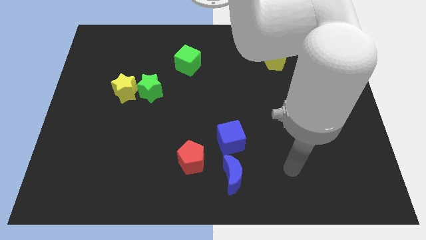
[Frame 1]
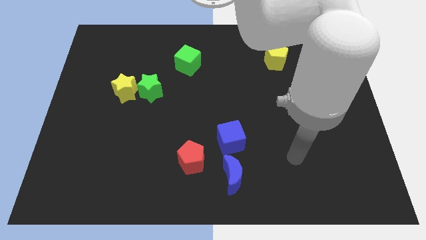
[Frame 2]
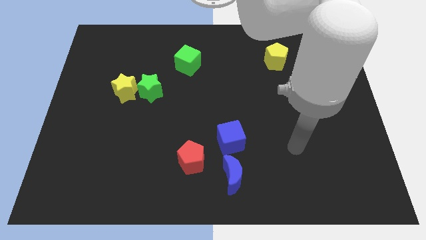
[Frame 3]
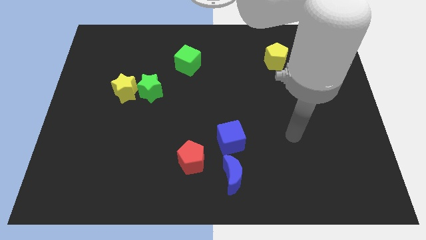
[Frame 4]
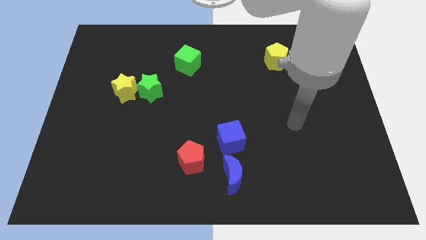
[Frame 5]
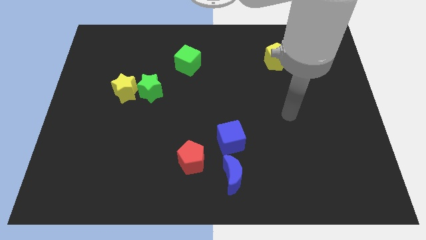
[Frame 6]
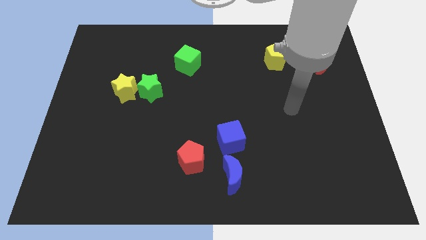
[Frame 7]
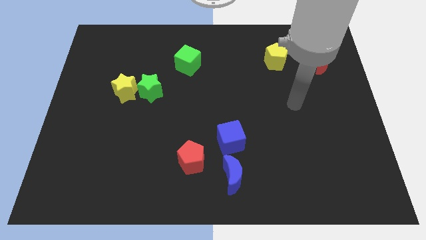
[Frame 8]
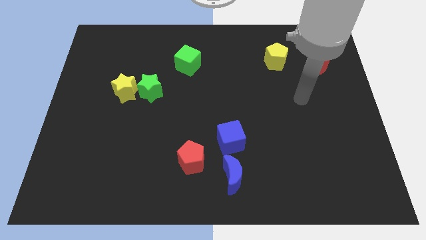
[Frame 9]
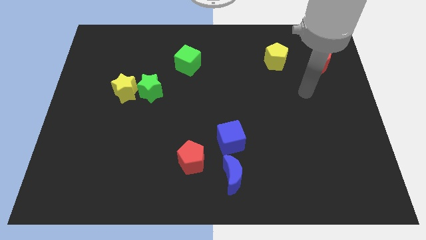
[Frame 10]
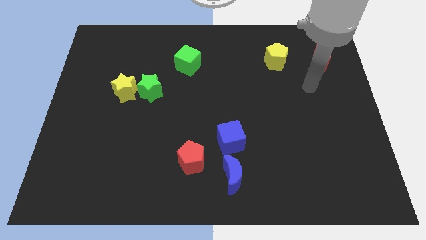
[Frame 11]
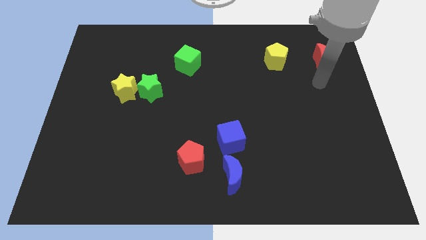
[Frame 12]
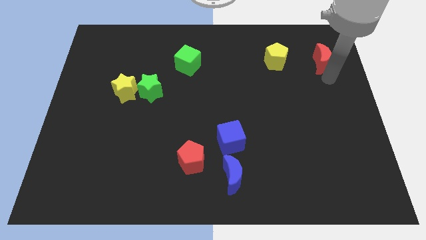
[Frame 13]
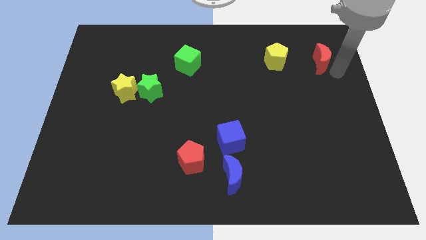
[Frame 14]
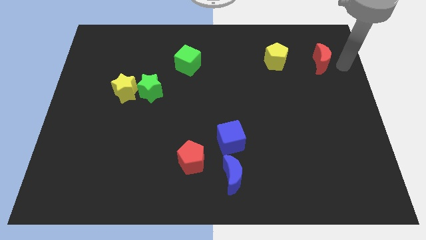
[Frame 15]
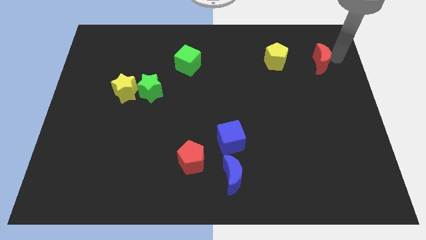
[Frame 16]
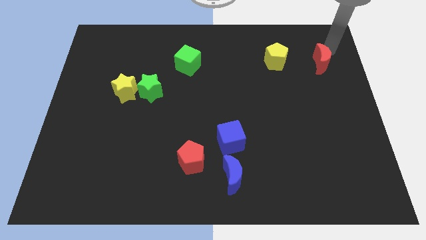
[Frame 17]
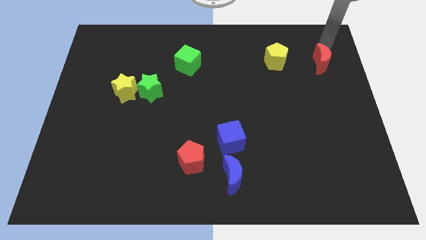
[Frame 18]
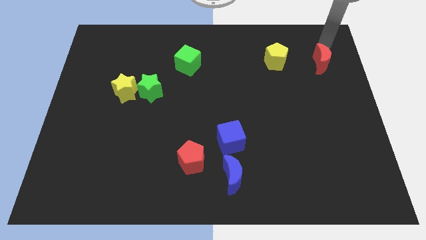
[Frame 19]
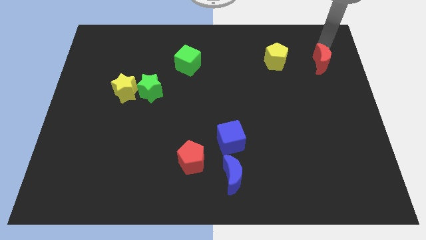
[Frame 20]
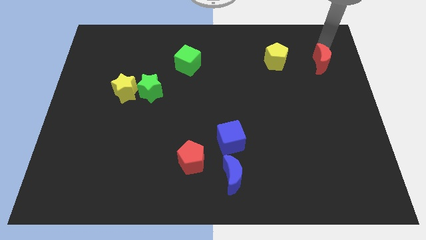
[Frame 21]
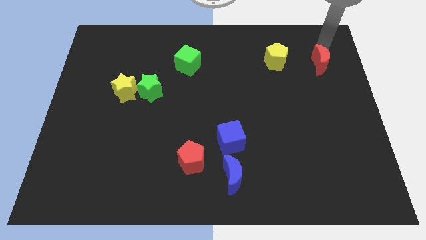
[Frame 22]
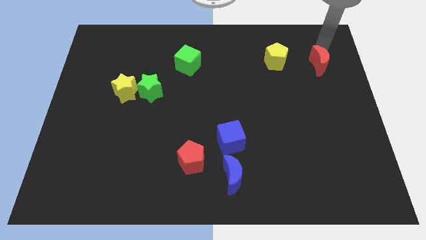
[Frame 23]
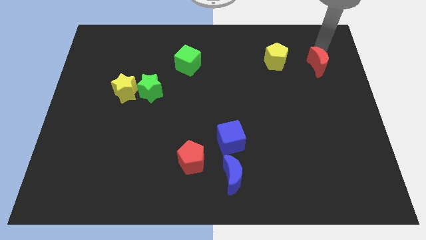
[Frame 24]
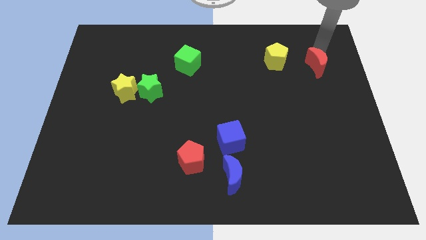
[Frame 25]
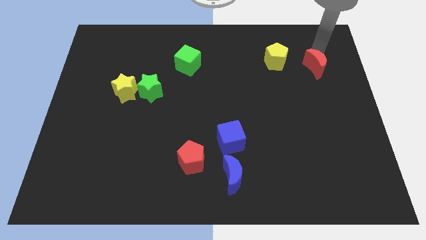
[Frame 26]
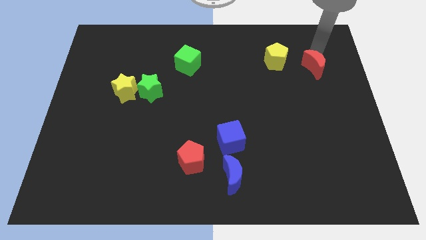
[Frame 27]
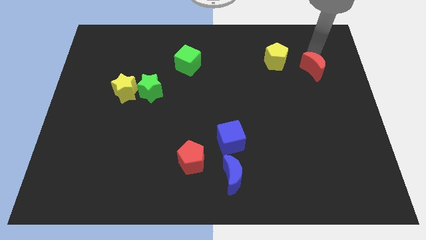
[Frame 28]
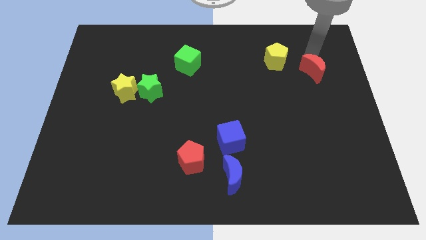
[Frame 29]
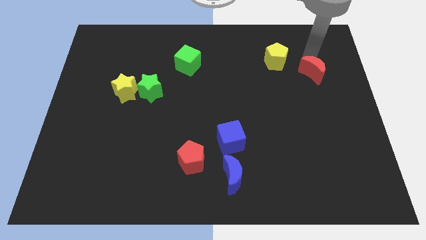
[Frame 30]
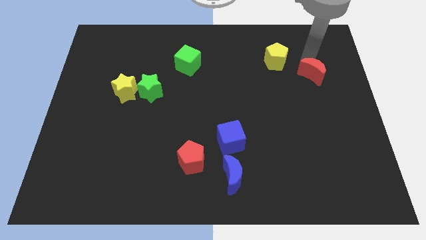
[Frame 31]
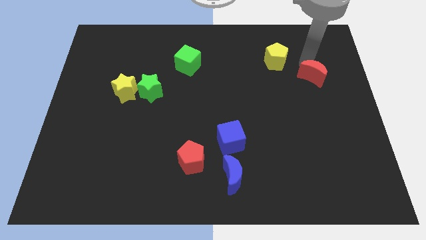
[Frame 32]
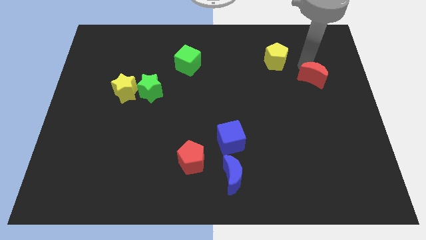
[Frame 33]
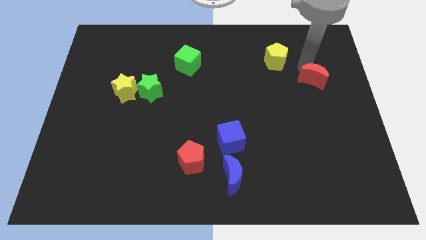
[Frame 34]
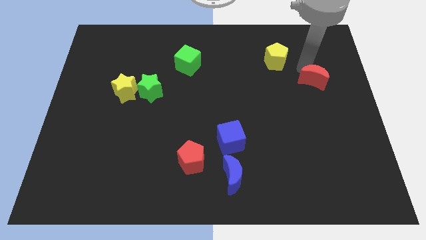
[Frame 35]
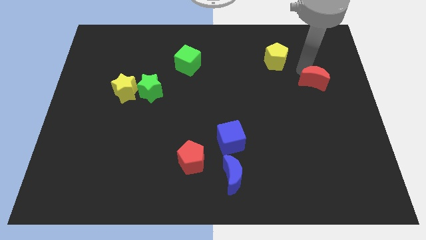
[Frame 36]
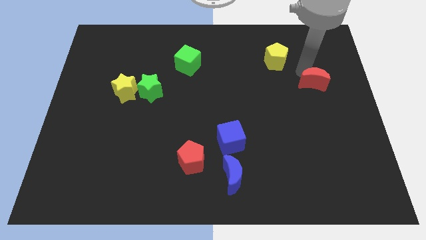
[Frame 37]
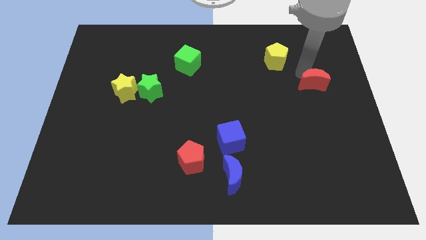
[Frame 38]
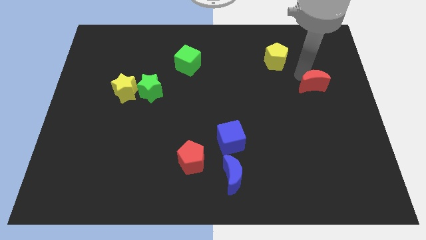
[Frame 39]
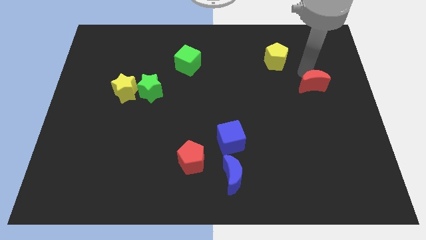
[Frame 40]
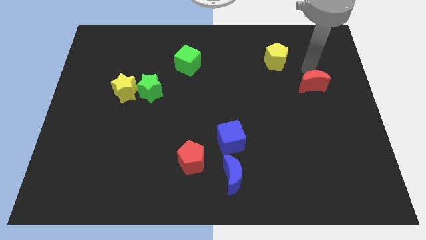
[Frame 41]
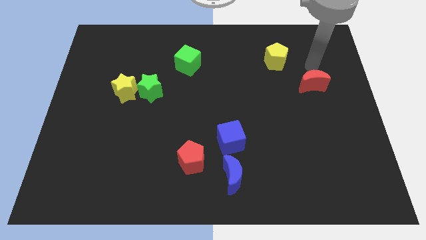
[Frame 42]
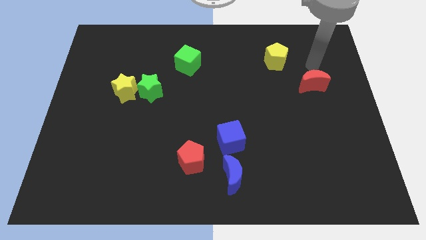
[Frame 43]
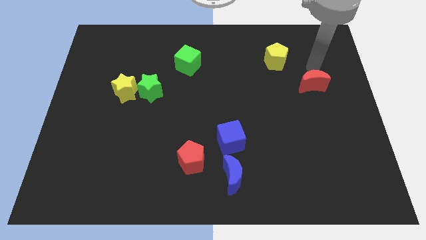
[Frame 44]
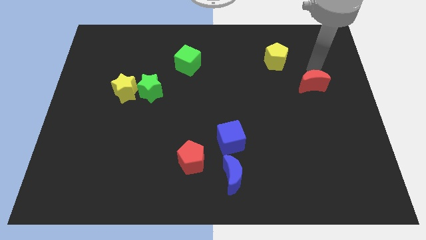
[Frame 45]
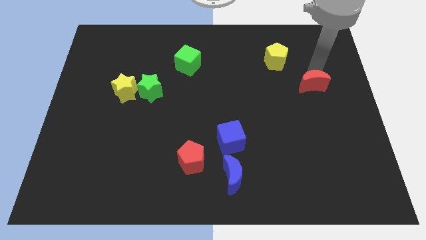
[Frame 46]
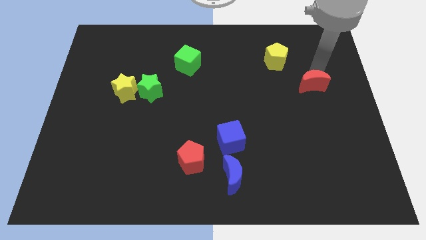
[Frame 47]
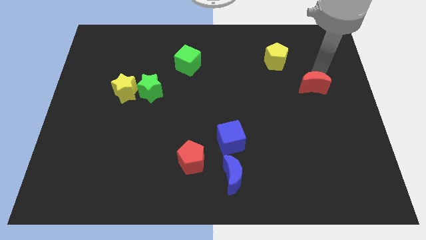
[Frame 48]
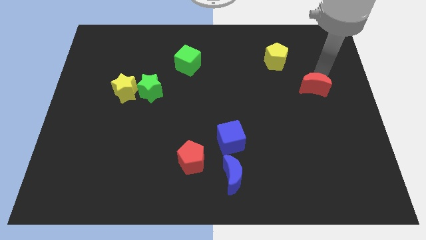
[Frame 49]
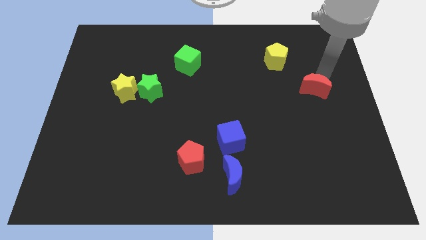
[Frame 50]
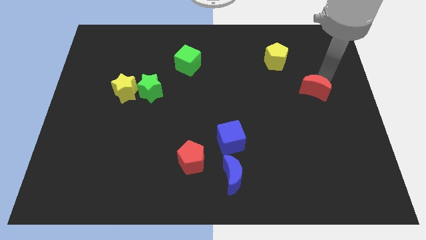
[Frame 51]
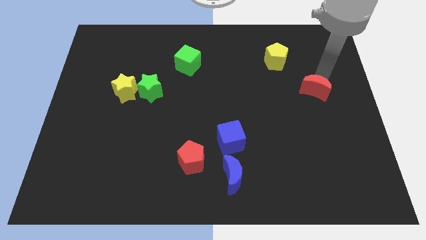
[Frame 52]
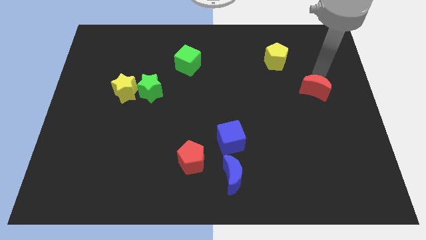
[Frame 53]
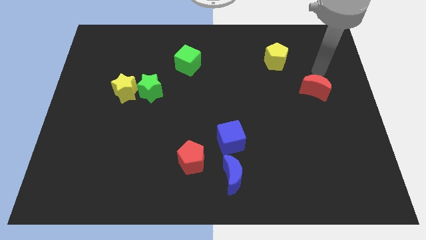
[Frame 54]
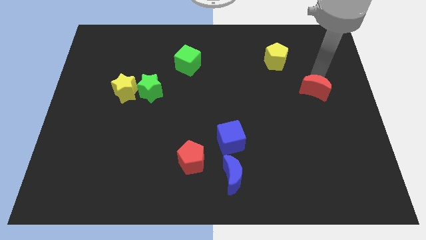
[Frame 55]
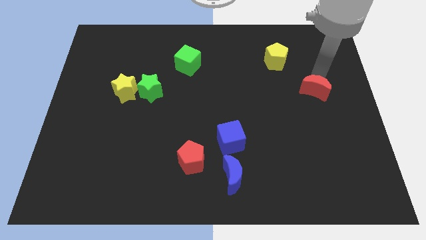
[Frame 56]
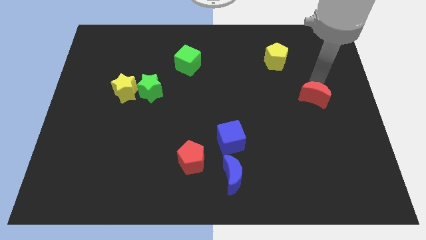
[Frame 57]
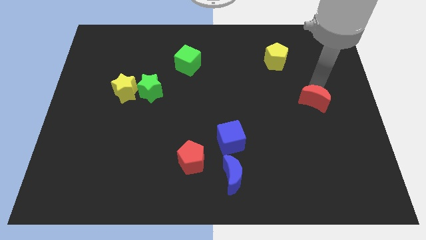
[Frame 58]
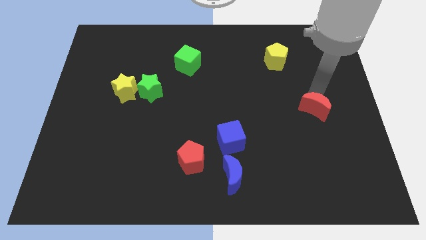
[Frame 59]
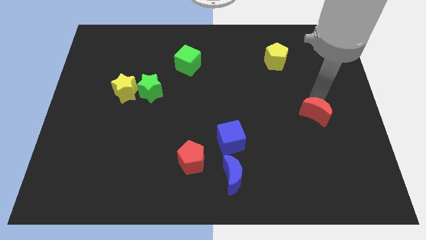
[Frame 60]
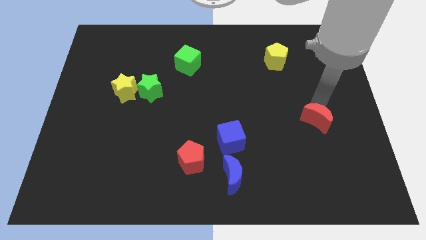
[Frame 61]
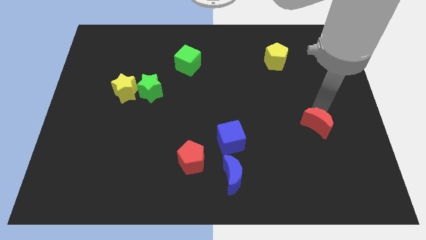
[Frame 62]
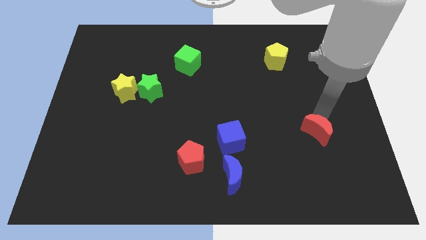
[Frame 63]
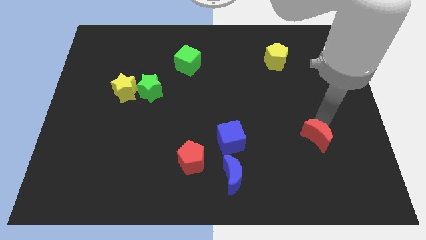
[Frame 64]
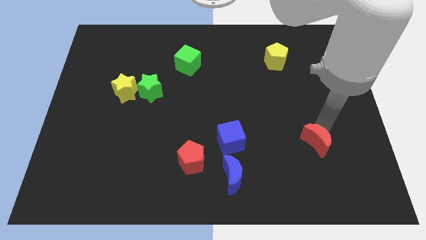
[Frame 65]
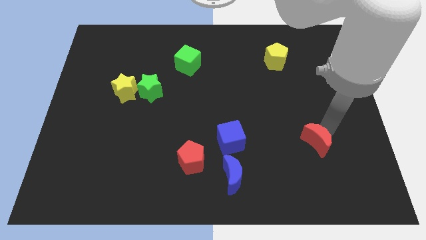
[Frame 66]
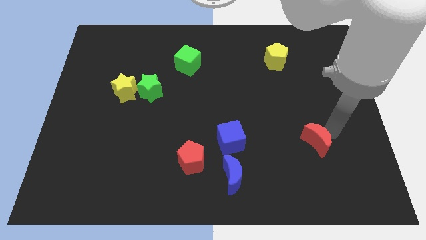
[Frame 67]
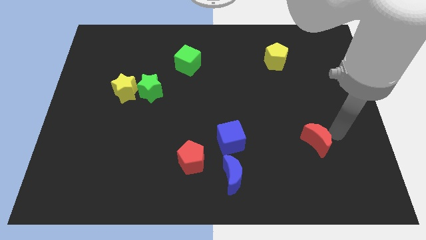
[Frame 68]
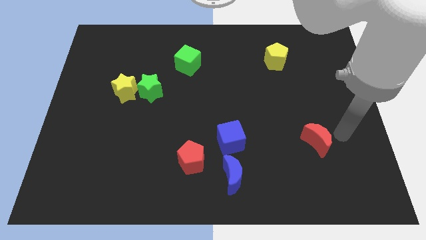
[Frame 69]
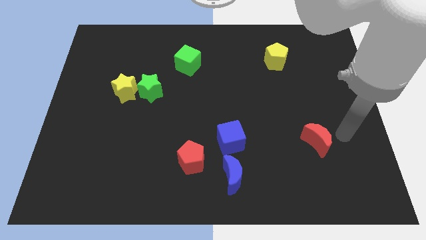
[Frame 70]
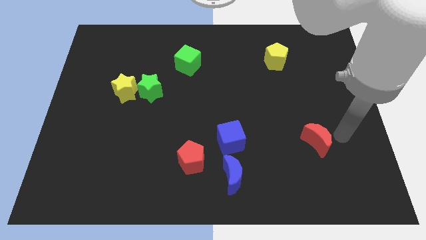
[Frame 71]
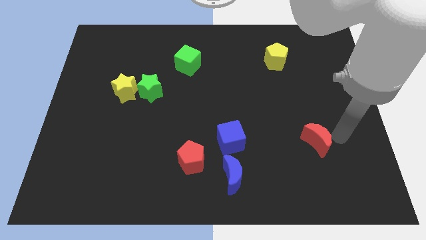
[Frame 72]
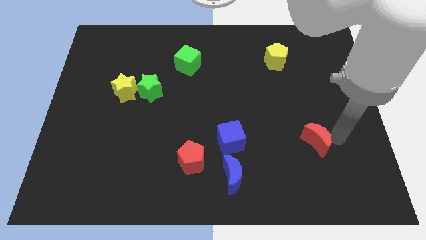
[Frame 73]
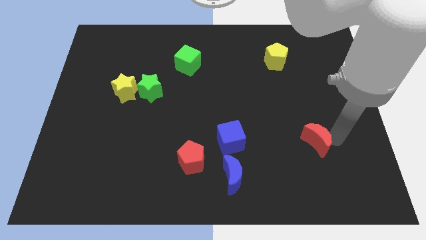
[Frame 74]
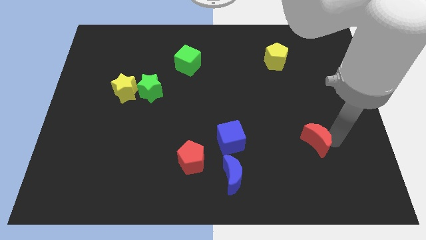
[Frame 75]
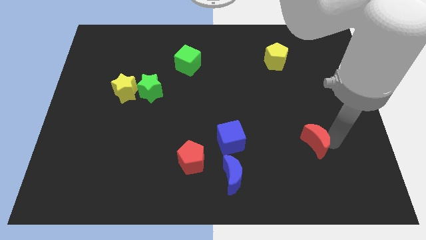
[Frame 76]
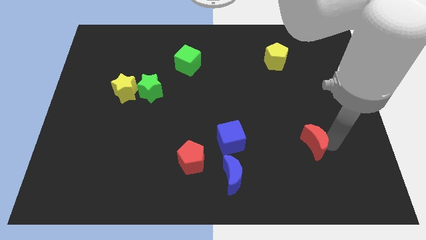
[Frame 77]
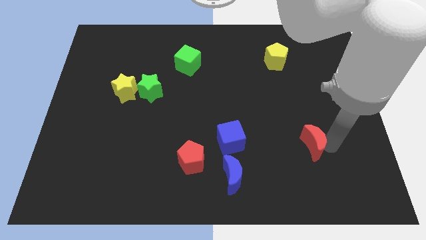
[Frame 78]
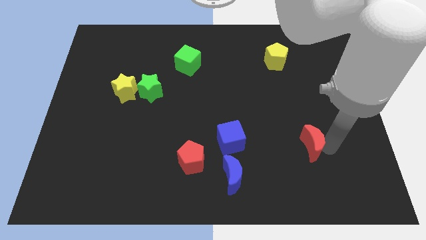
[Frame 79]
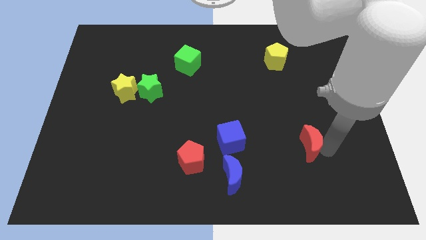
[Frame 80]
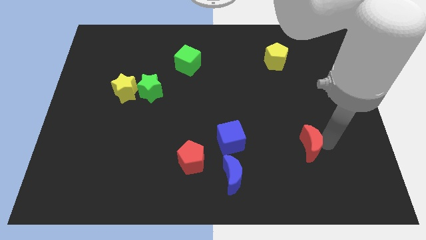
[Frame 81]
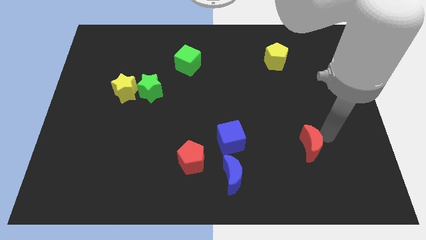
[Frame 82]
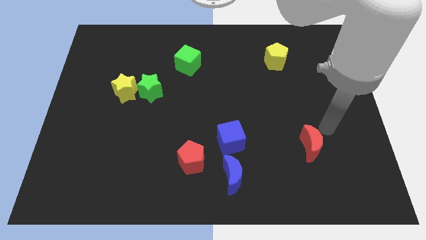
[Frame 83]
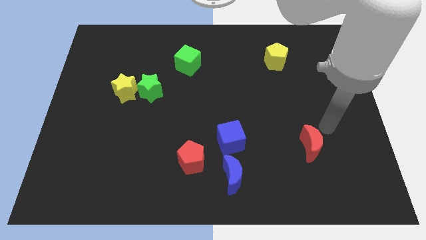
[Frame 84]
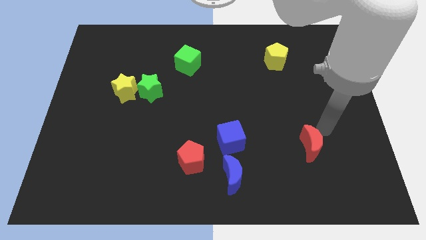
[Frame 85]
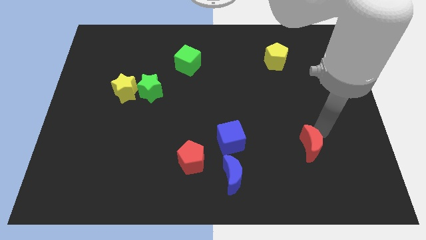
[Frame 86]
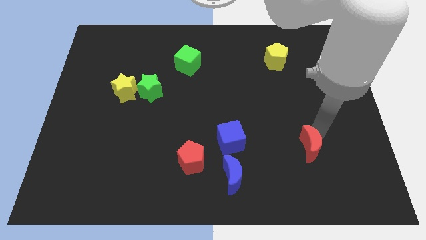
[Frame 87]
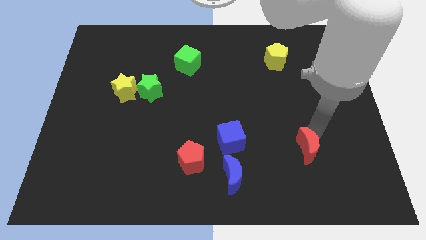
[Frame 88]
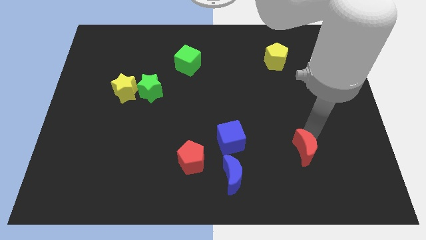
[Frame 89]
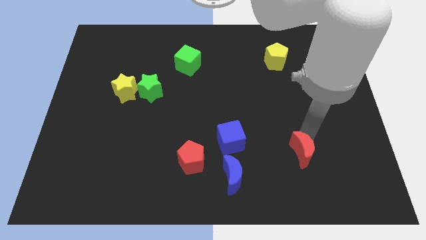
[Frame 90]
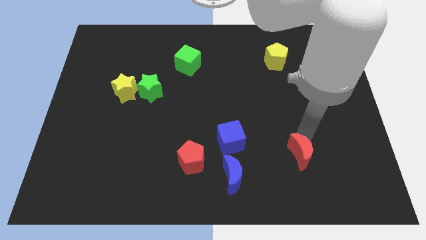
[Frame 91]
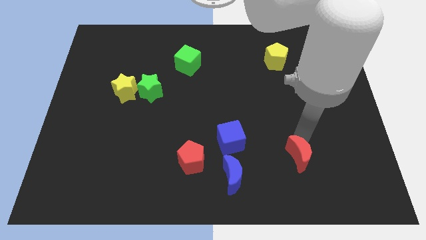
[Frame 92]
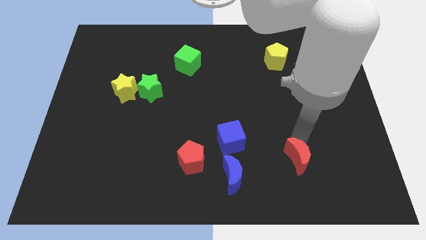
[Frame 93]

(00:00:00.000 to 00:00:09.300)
put the red moon right of the blue moon
